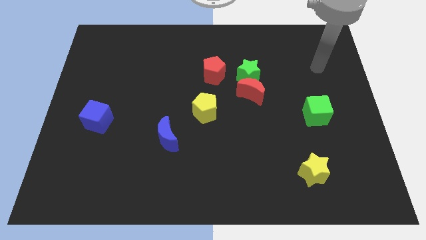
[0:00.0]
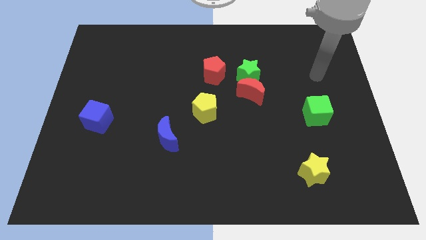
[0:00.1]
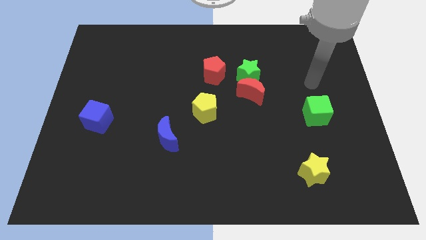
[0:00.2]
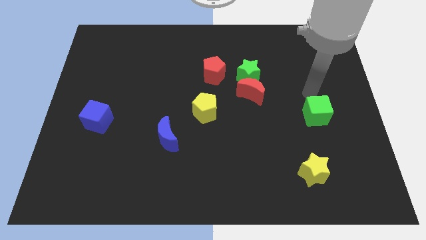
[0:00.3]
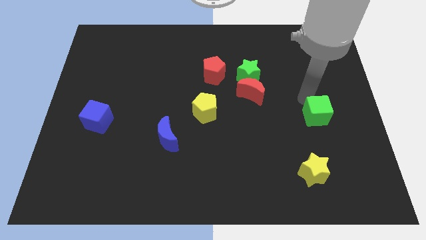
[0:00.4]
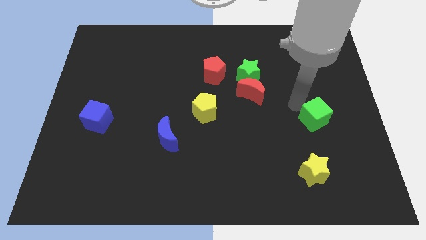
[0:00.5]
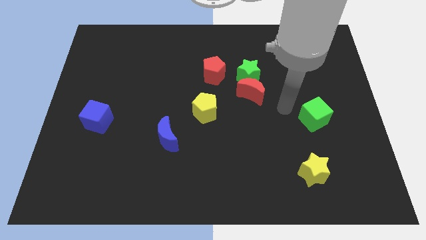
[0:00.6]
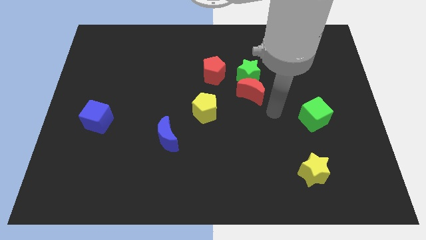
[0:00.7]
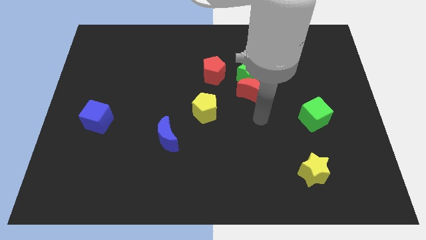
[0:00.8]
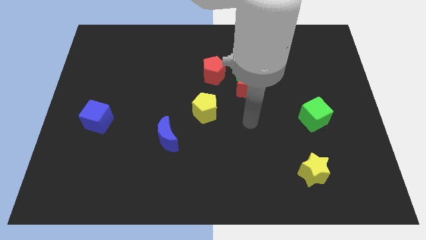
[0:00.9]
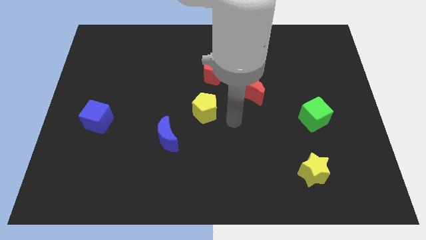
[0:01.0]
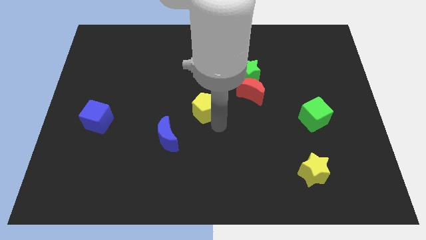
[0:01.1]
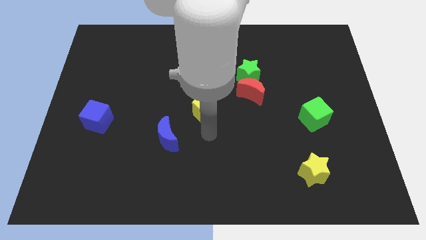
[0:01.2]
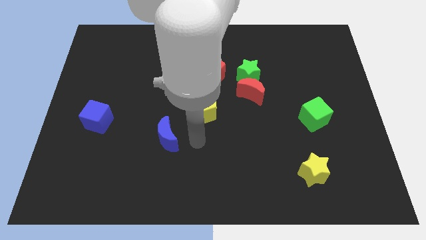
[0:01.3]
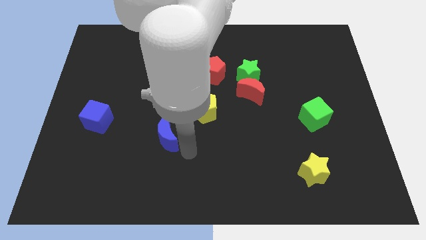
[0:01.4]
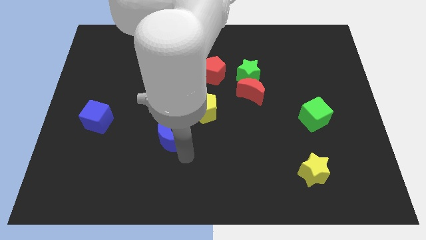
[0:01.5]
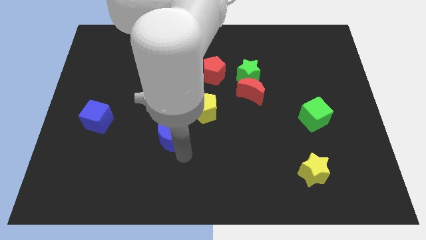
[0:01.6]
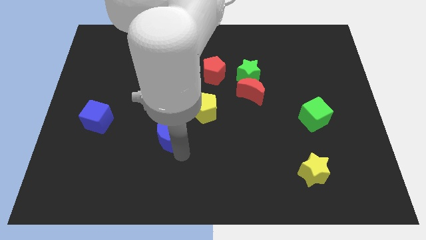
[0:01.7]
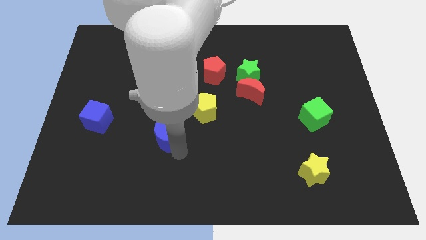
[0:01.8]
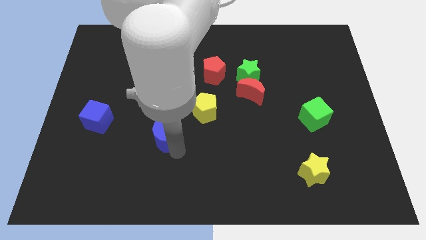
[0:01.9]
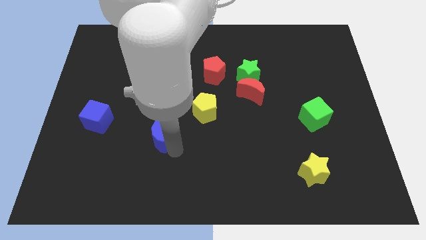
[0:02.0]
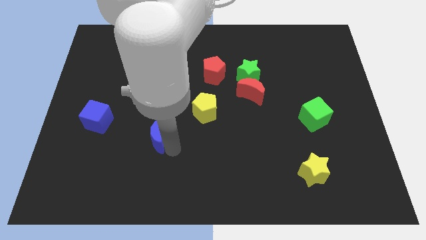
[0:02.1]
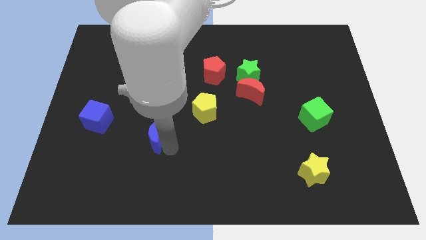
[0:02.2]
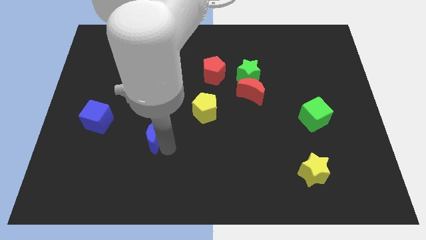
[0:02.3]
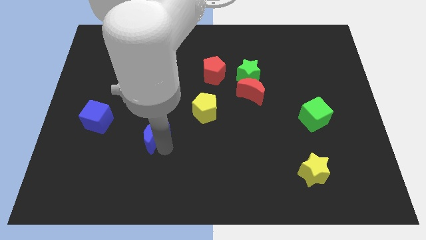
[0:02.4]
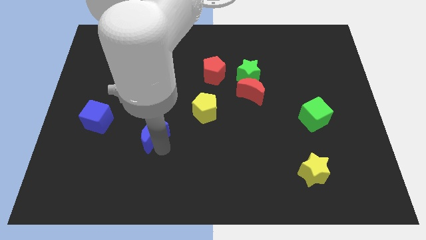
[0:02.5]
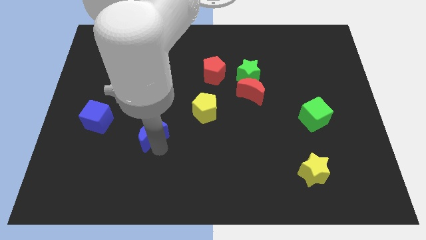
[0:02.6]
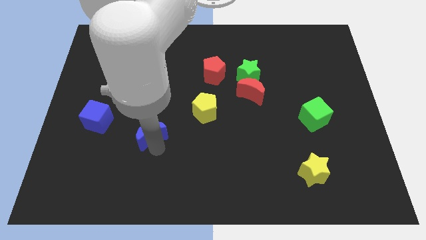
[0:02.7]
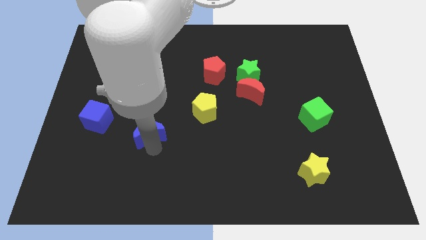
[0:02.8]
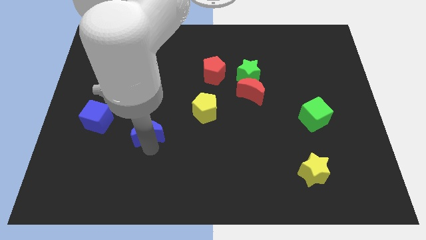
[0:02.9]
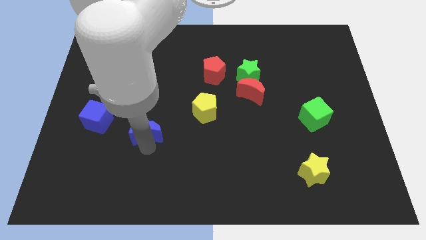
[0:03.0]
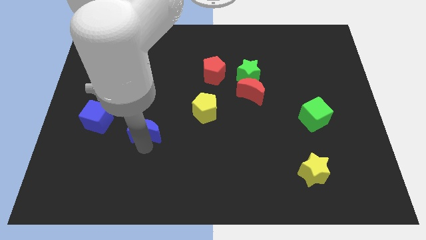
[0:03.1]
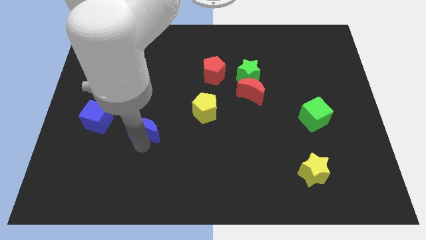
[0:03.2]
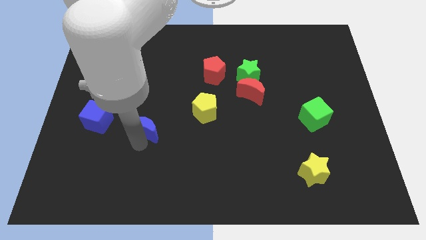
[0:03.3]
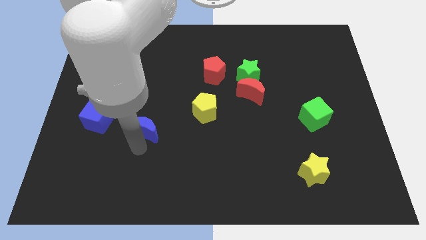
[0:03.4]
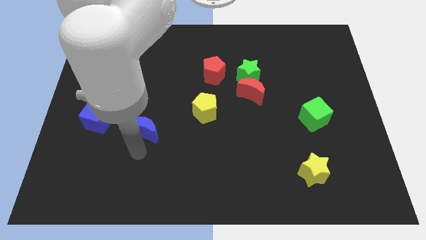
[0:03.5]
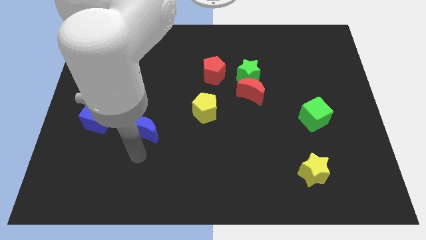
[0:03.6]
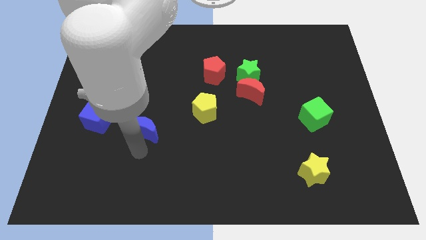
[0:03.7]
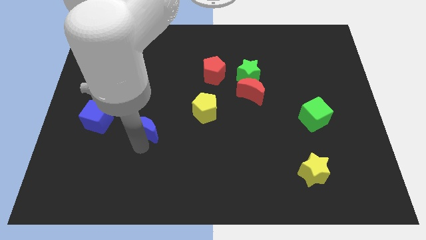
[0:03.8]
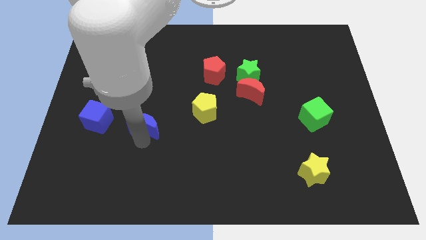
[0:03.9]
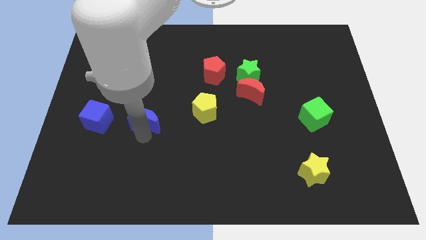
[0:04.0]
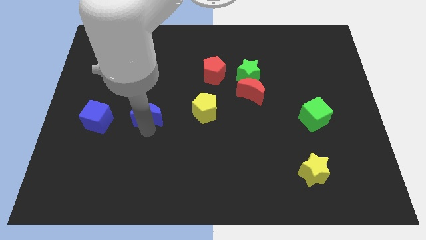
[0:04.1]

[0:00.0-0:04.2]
slightly push the blue moon up and left diagonally

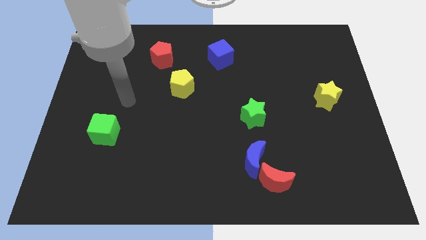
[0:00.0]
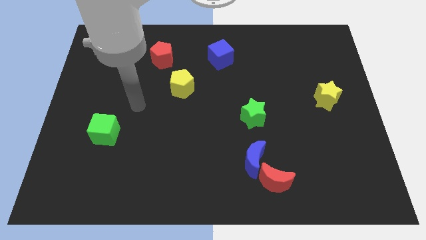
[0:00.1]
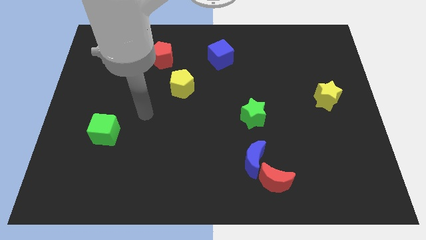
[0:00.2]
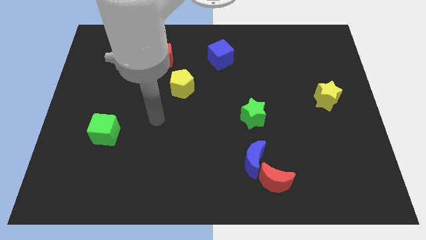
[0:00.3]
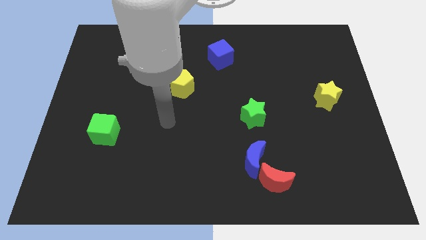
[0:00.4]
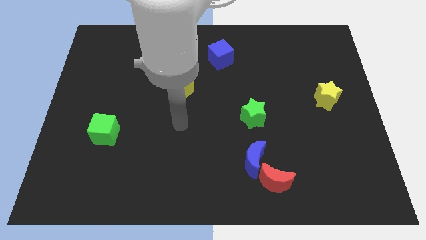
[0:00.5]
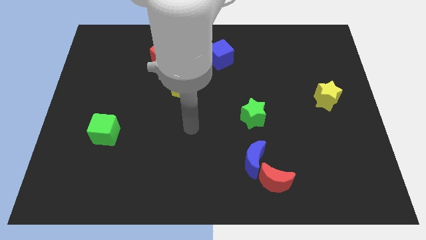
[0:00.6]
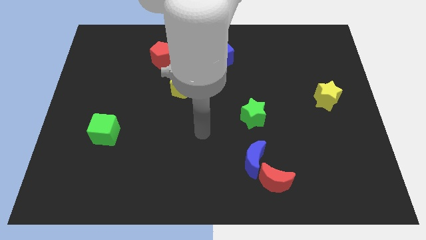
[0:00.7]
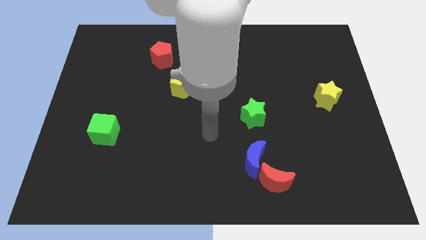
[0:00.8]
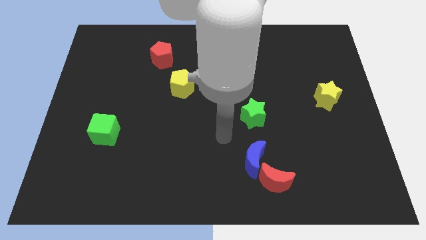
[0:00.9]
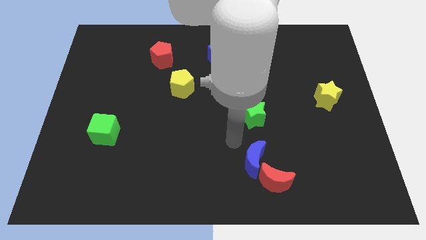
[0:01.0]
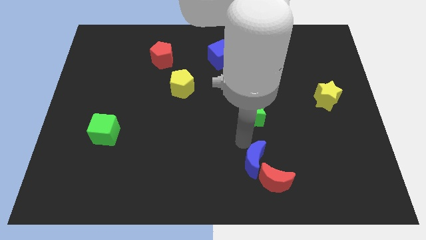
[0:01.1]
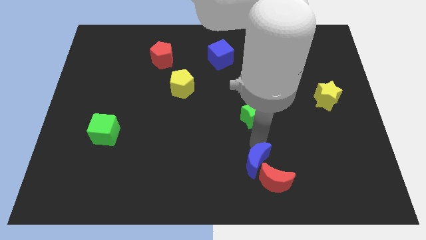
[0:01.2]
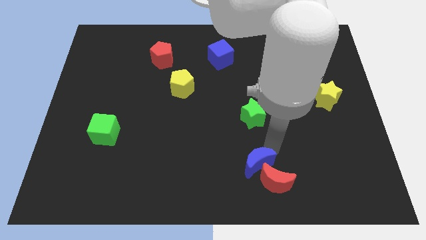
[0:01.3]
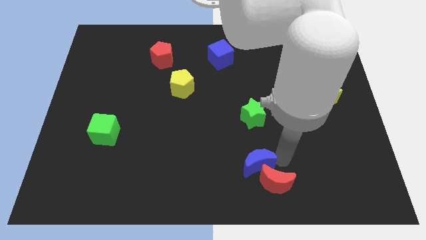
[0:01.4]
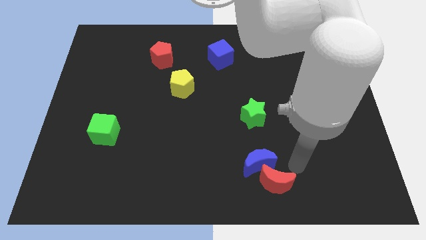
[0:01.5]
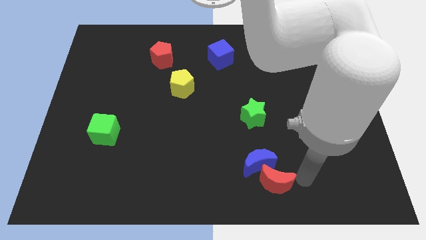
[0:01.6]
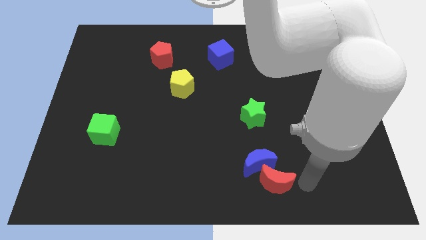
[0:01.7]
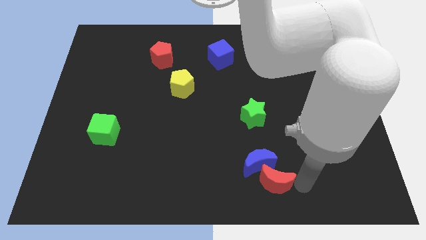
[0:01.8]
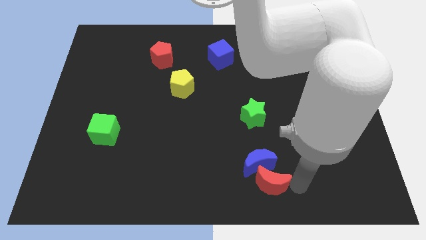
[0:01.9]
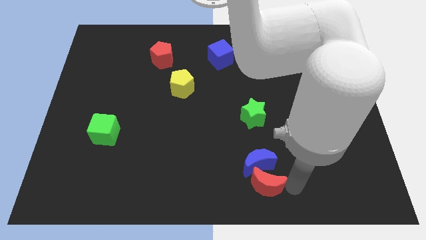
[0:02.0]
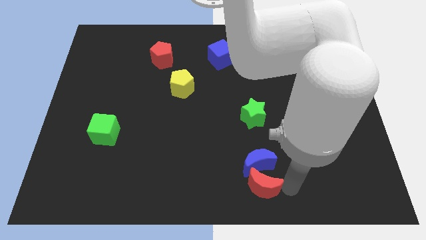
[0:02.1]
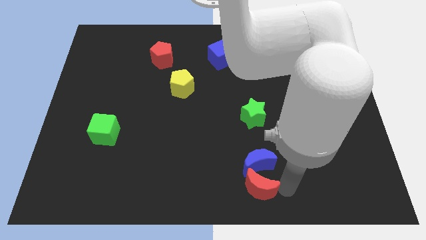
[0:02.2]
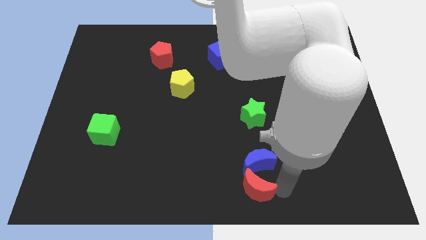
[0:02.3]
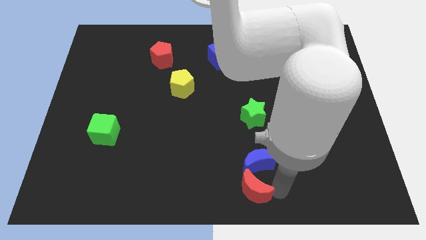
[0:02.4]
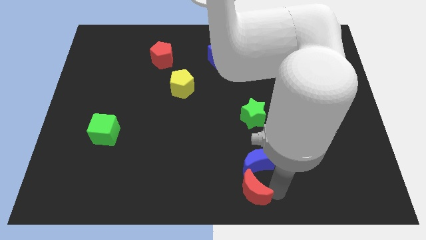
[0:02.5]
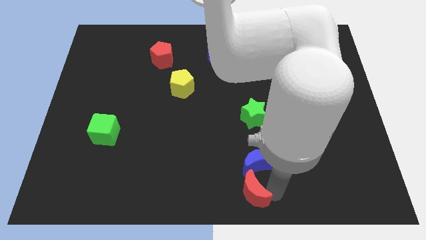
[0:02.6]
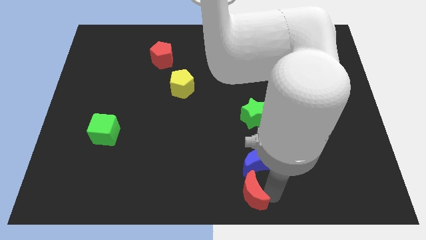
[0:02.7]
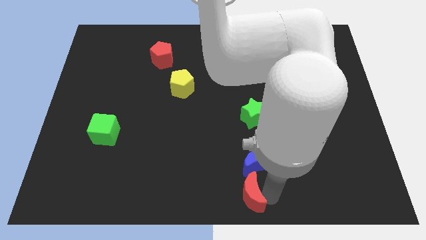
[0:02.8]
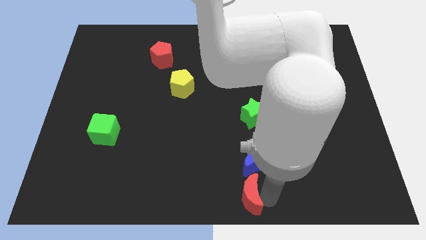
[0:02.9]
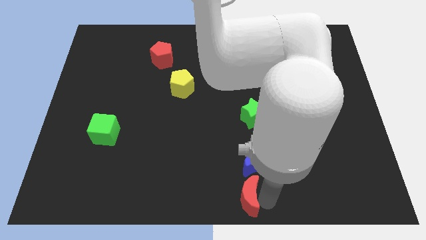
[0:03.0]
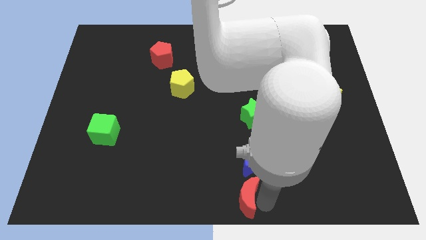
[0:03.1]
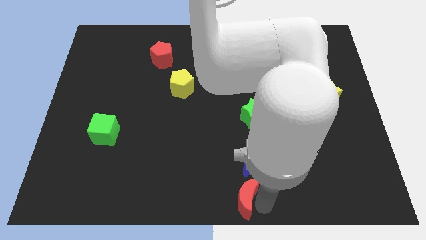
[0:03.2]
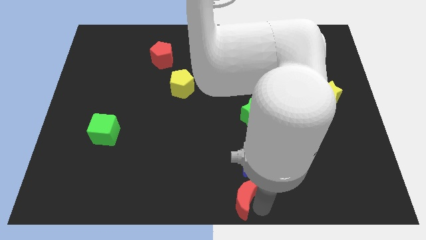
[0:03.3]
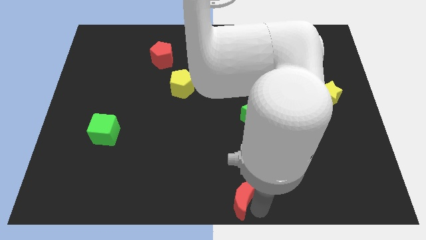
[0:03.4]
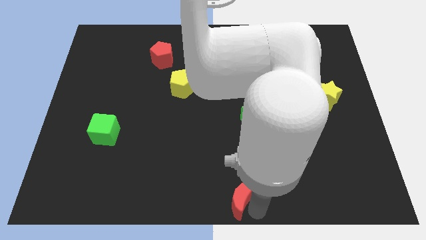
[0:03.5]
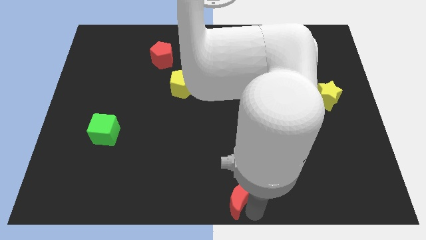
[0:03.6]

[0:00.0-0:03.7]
slightly move the red moon to the left
